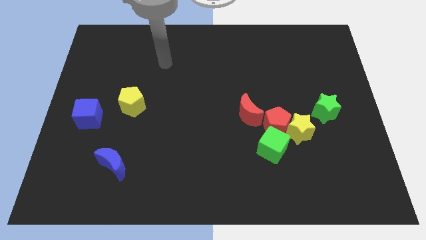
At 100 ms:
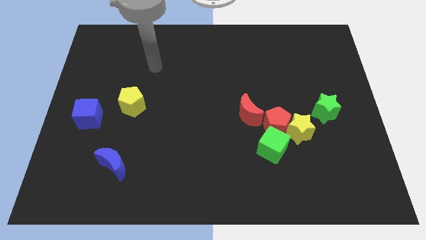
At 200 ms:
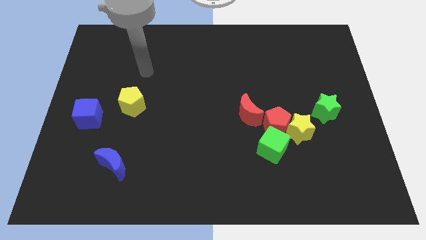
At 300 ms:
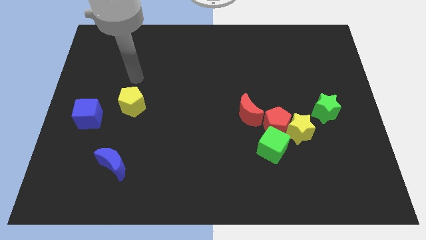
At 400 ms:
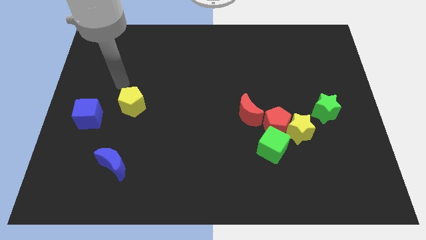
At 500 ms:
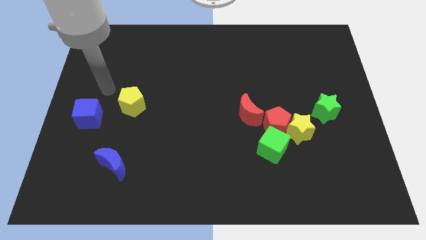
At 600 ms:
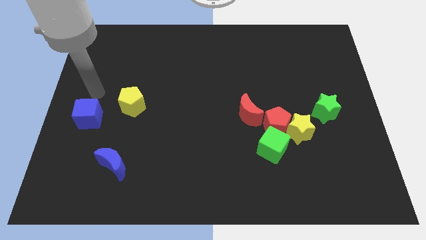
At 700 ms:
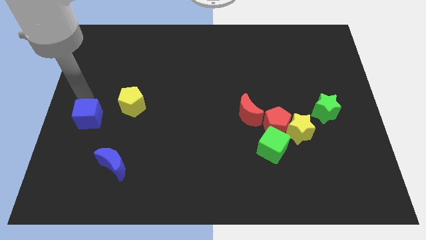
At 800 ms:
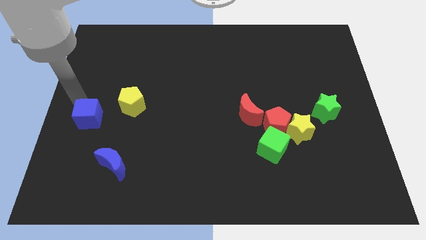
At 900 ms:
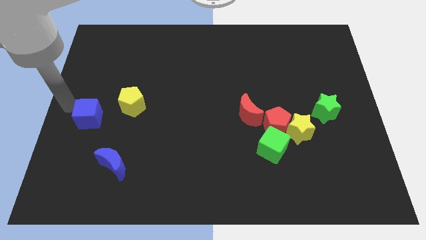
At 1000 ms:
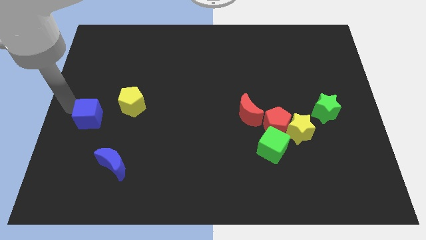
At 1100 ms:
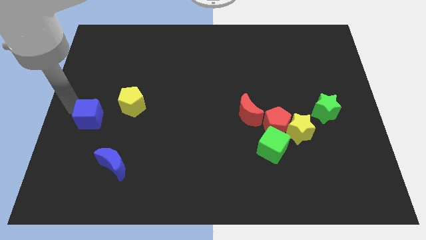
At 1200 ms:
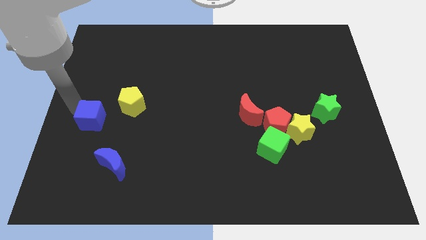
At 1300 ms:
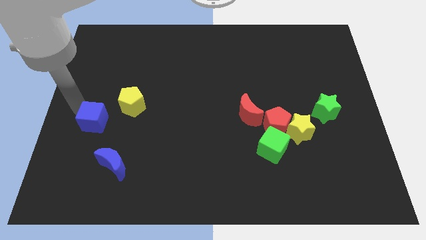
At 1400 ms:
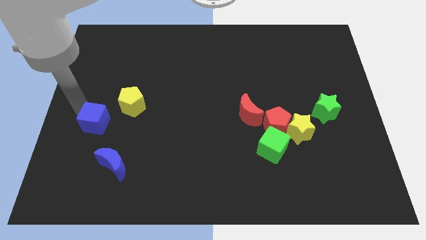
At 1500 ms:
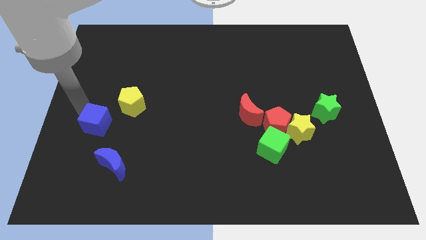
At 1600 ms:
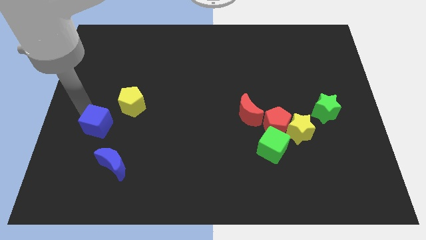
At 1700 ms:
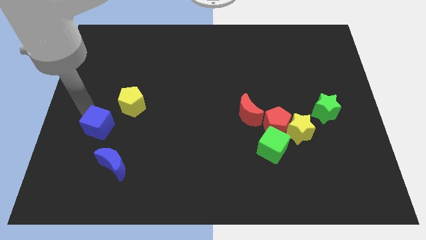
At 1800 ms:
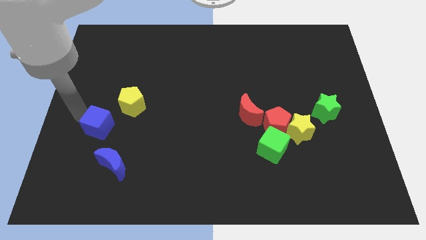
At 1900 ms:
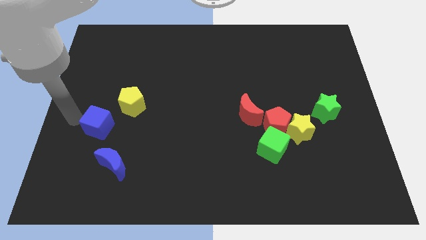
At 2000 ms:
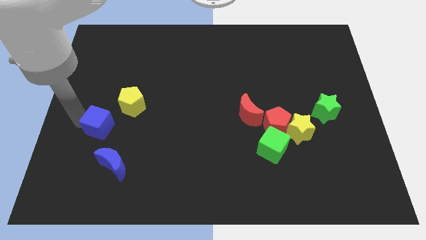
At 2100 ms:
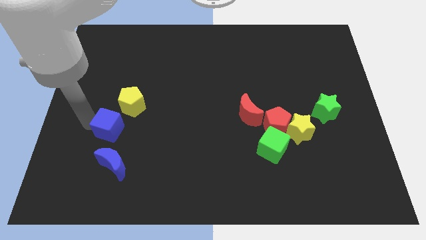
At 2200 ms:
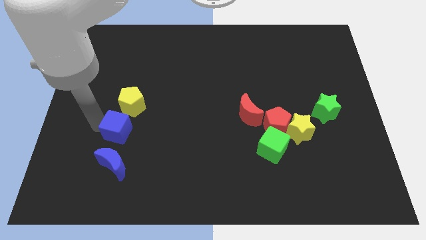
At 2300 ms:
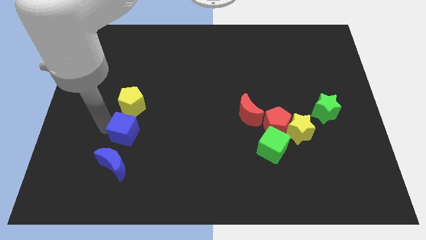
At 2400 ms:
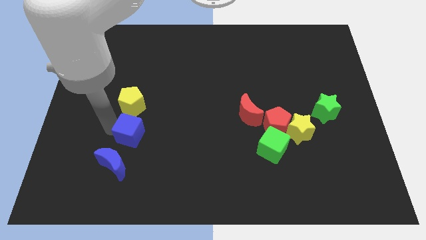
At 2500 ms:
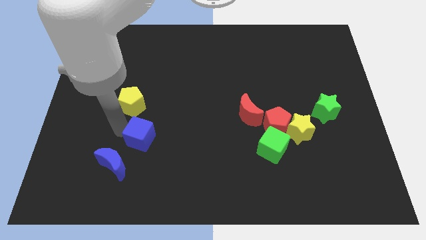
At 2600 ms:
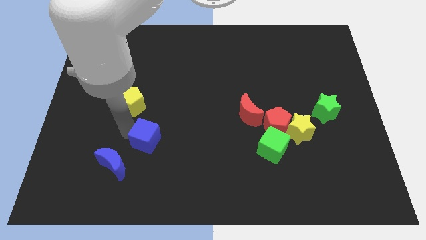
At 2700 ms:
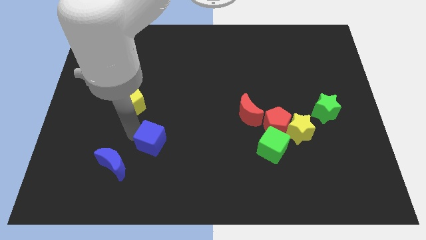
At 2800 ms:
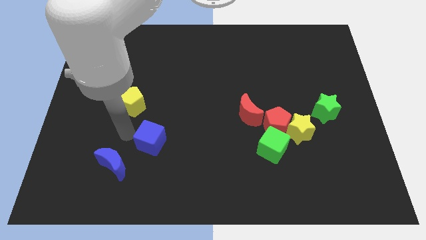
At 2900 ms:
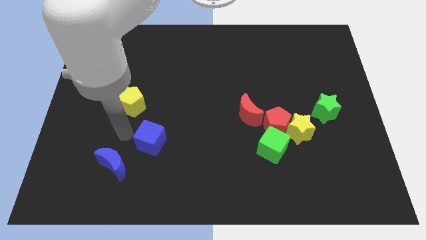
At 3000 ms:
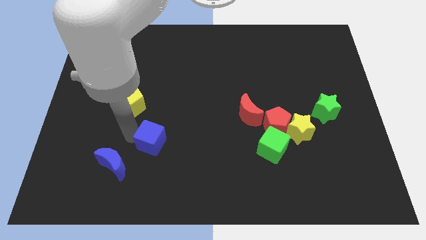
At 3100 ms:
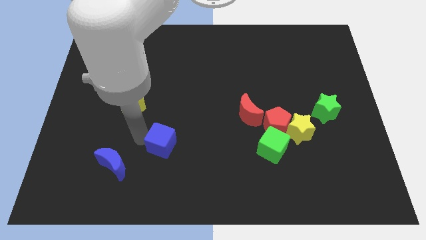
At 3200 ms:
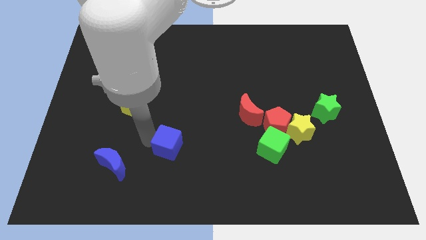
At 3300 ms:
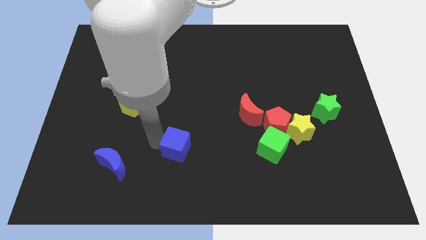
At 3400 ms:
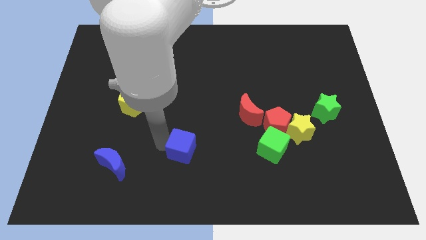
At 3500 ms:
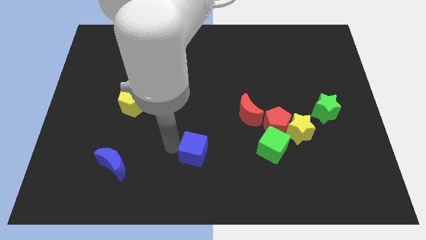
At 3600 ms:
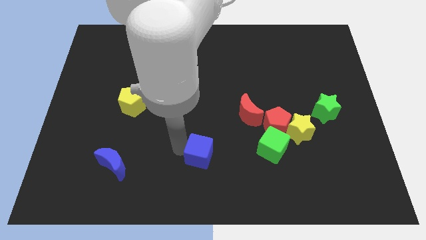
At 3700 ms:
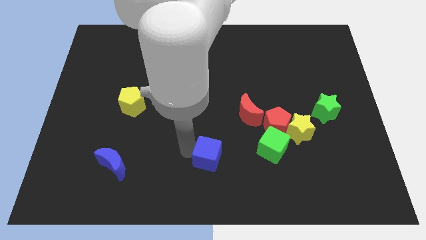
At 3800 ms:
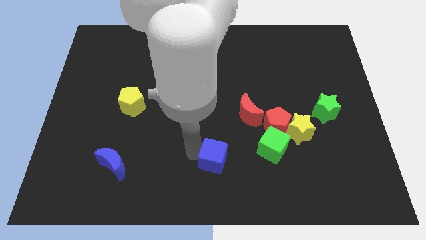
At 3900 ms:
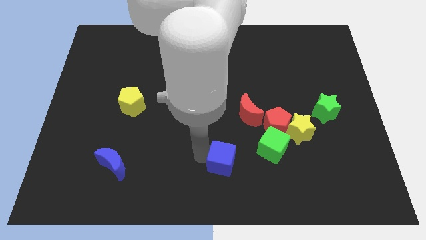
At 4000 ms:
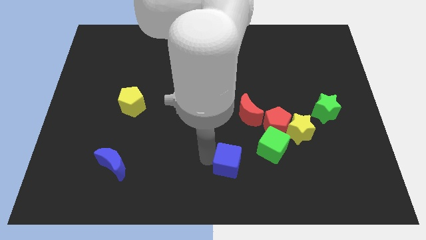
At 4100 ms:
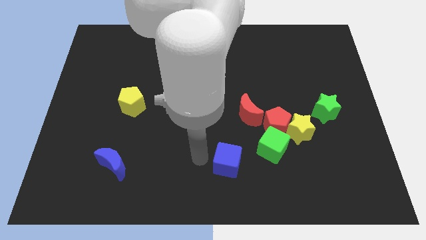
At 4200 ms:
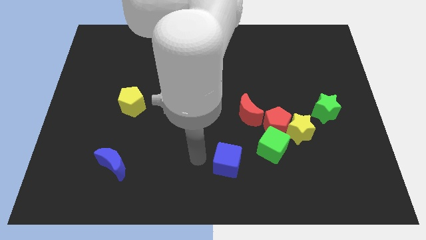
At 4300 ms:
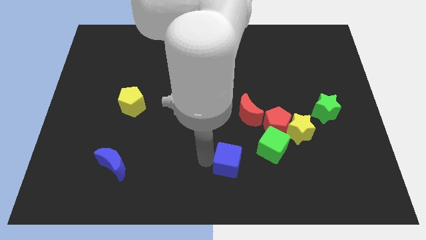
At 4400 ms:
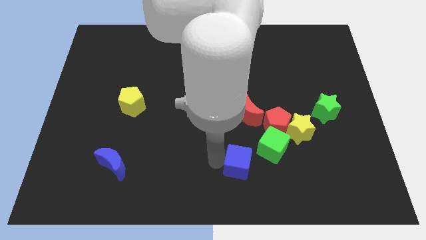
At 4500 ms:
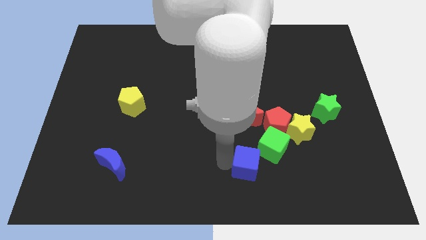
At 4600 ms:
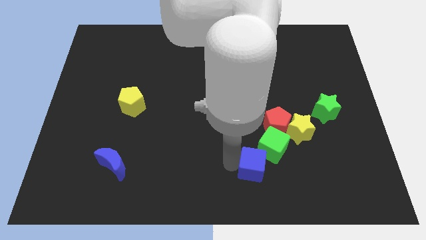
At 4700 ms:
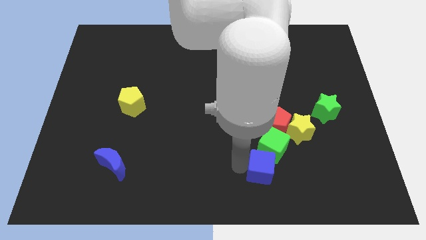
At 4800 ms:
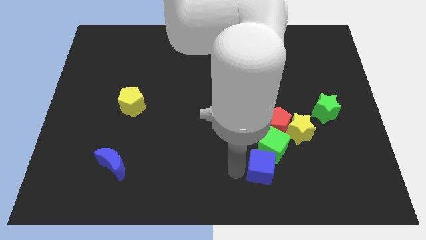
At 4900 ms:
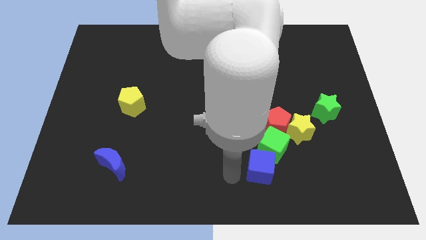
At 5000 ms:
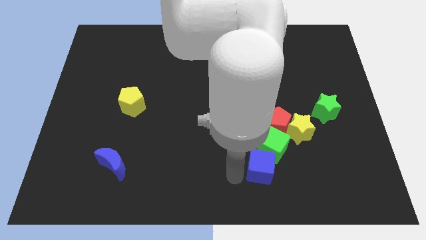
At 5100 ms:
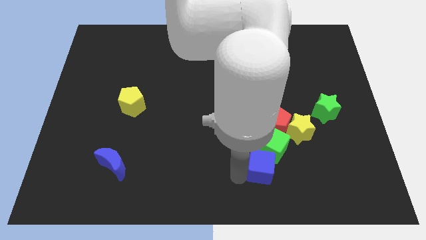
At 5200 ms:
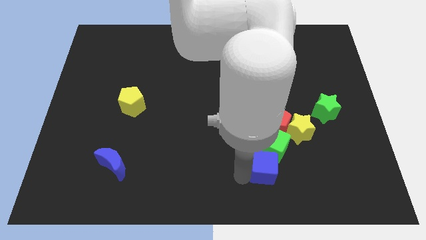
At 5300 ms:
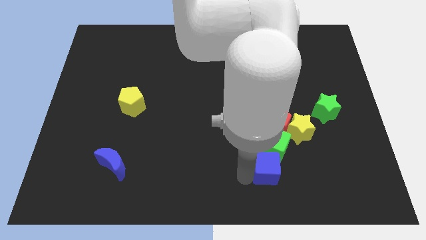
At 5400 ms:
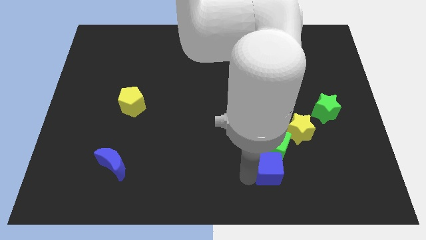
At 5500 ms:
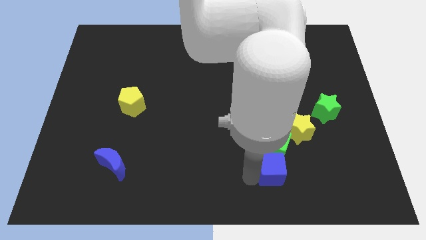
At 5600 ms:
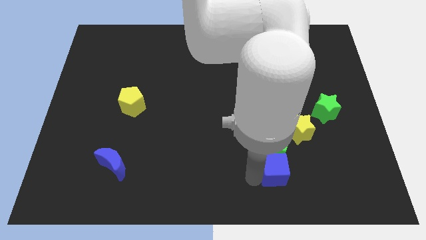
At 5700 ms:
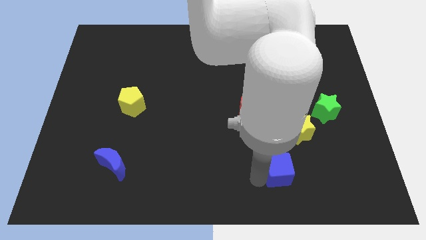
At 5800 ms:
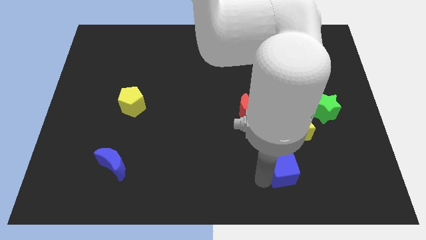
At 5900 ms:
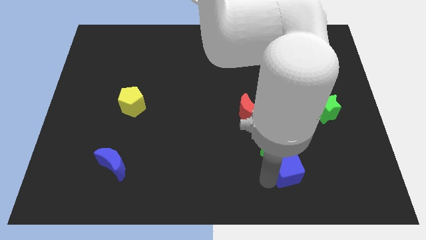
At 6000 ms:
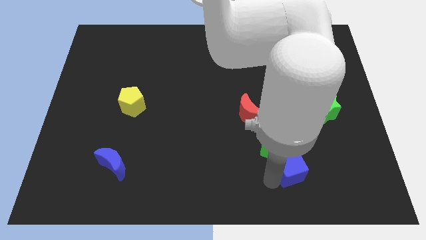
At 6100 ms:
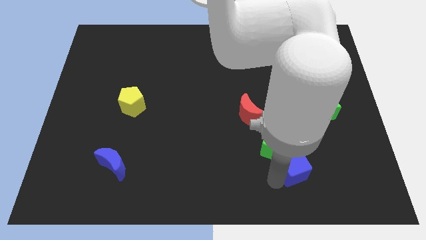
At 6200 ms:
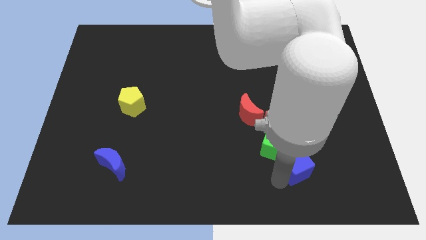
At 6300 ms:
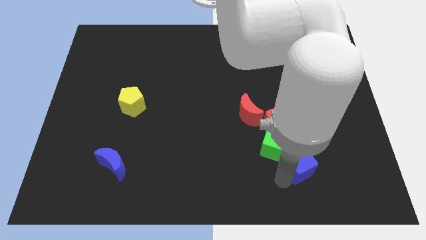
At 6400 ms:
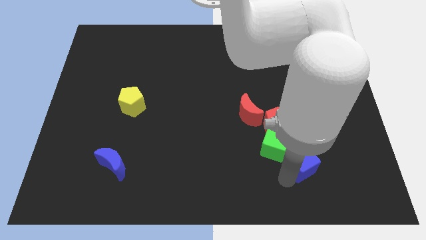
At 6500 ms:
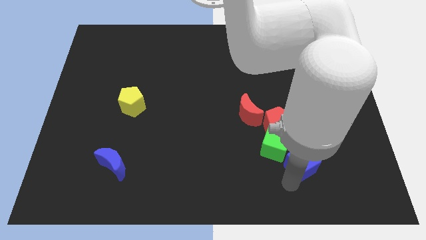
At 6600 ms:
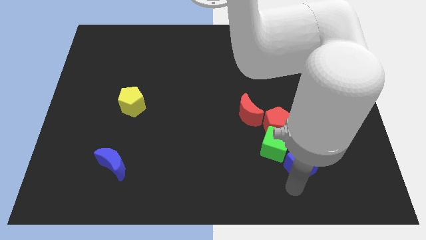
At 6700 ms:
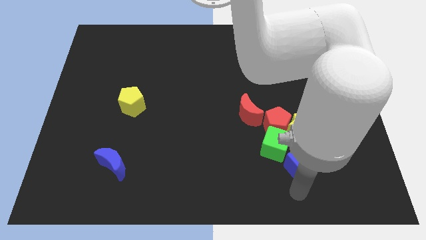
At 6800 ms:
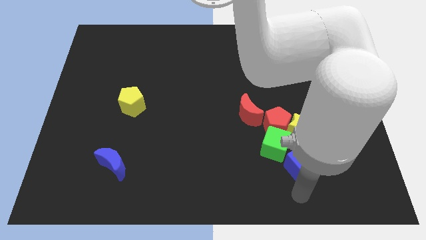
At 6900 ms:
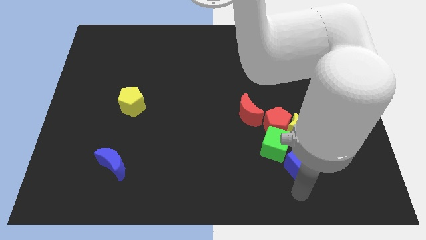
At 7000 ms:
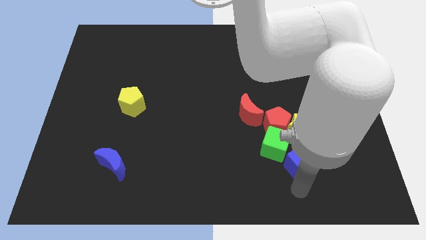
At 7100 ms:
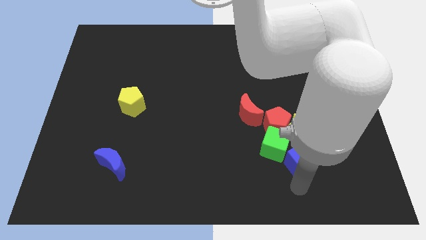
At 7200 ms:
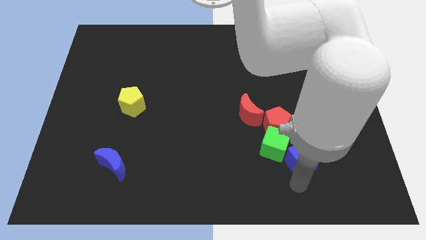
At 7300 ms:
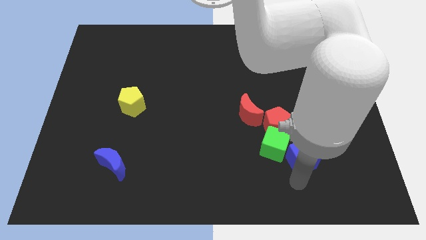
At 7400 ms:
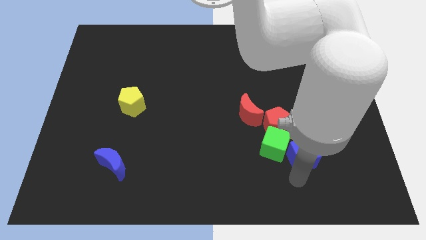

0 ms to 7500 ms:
push the blue cube next to the yellow star
